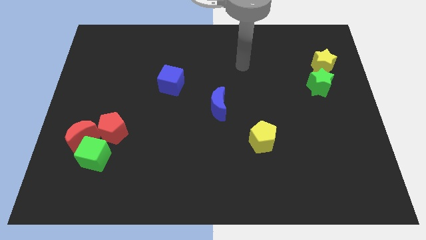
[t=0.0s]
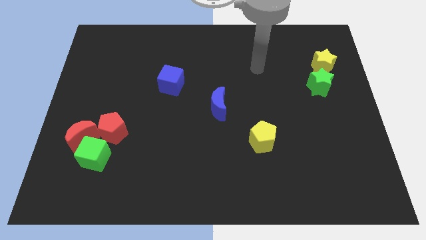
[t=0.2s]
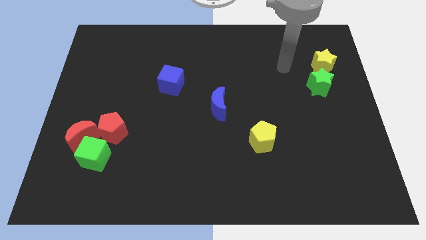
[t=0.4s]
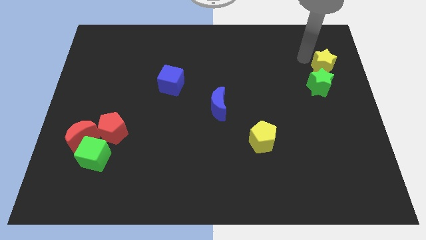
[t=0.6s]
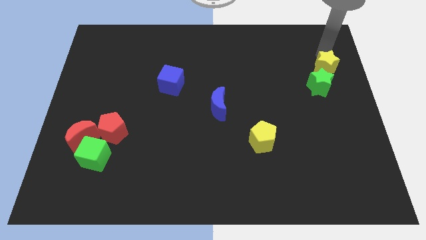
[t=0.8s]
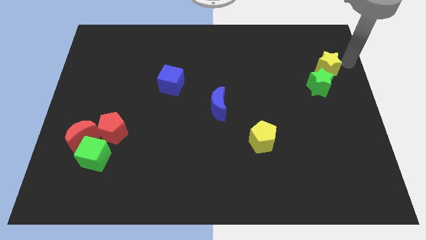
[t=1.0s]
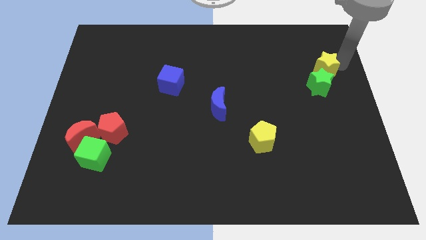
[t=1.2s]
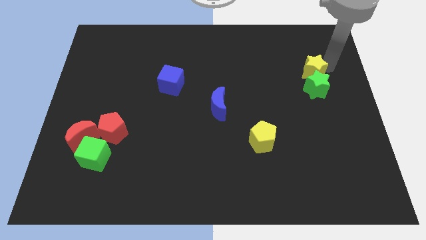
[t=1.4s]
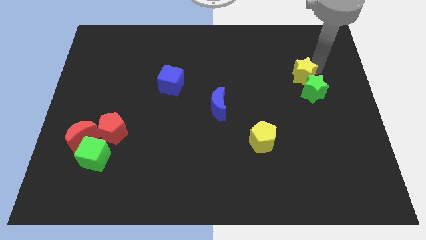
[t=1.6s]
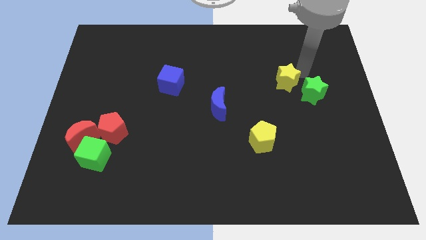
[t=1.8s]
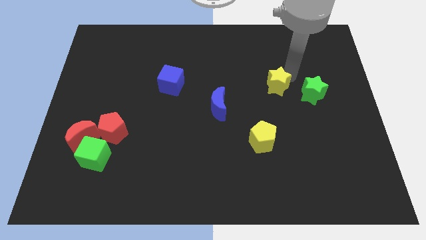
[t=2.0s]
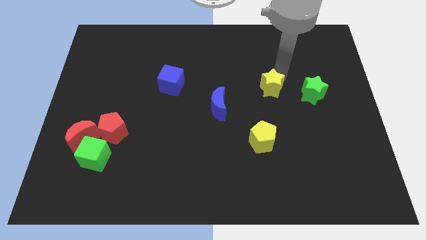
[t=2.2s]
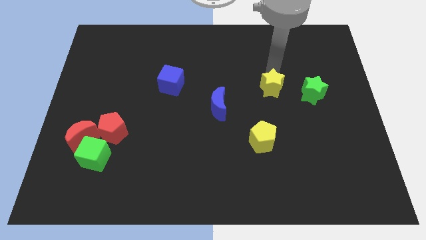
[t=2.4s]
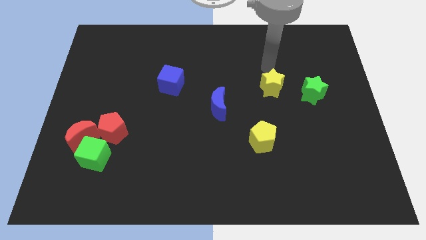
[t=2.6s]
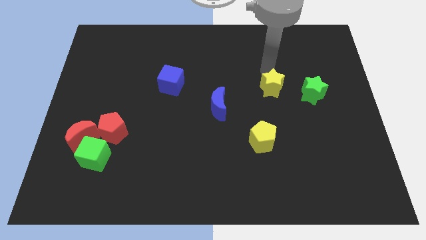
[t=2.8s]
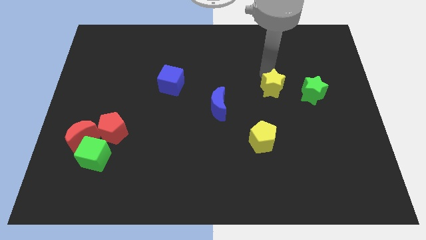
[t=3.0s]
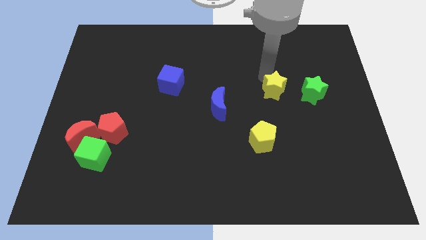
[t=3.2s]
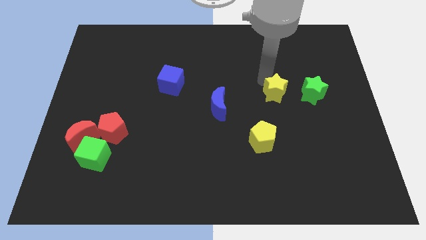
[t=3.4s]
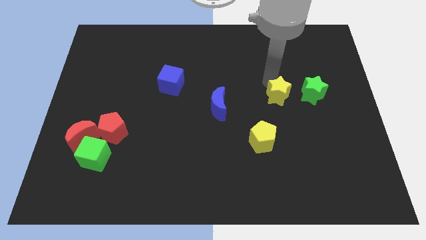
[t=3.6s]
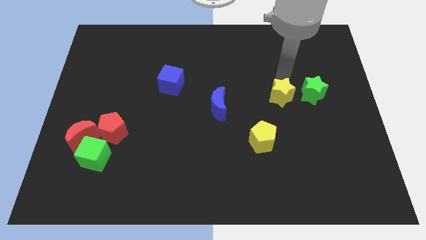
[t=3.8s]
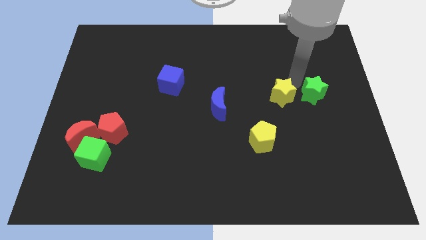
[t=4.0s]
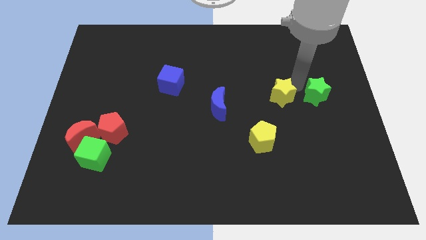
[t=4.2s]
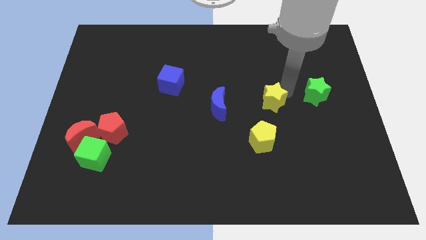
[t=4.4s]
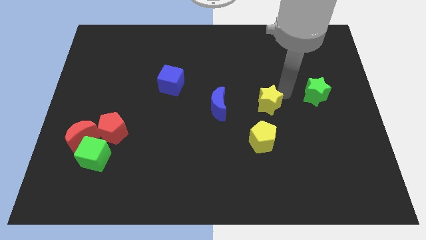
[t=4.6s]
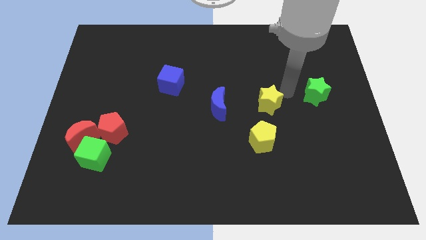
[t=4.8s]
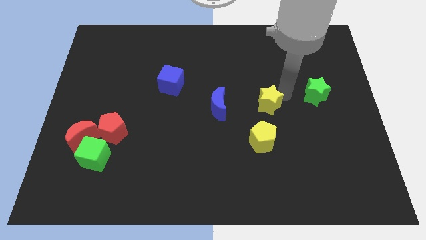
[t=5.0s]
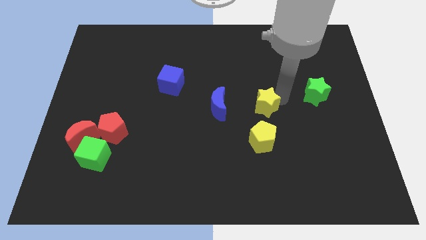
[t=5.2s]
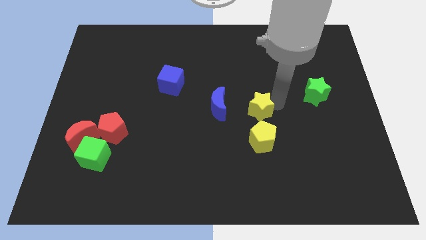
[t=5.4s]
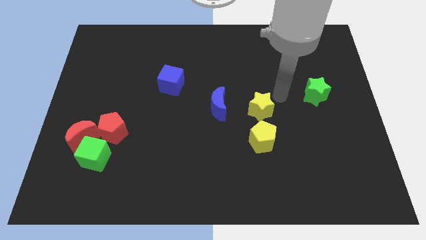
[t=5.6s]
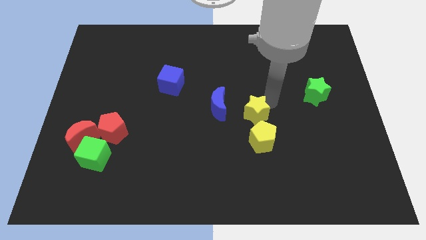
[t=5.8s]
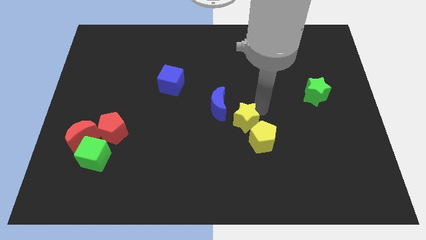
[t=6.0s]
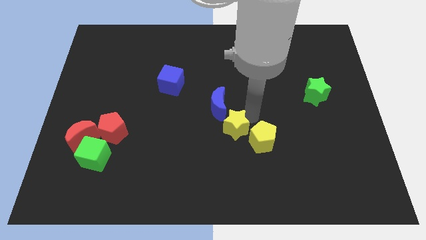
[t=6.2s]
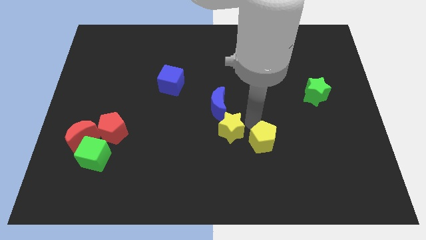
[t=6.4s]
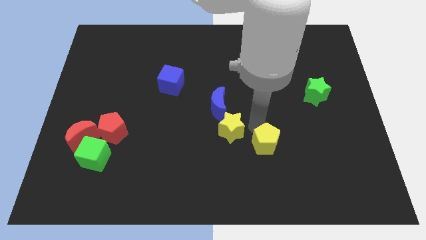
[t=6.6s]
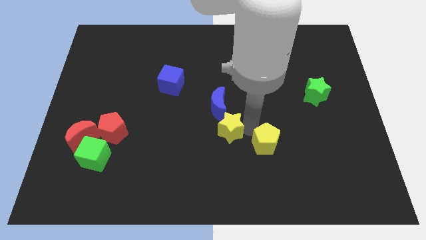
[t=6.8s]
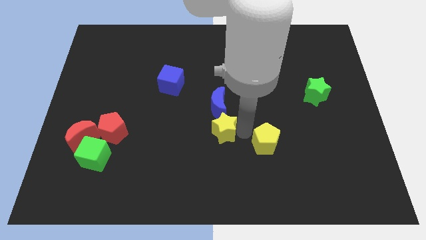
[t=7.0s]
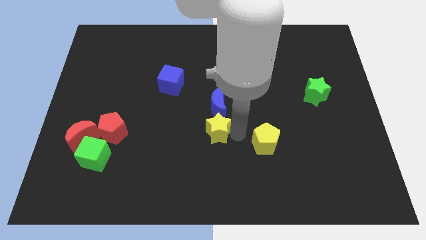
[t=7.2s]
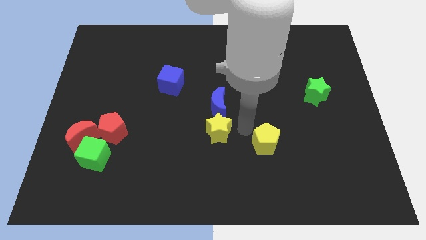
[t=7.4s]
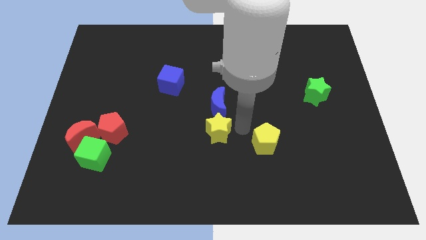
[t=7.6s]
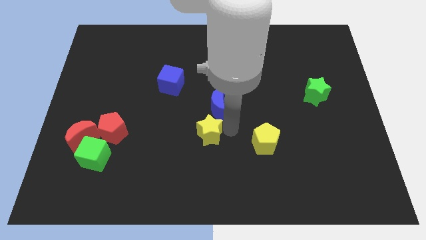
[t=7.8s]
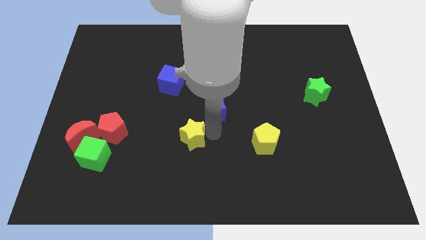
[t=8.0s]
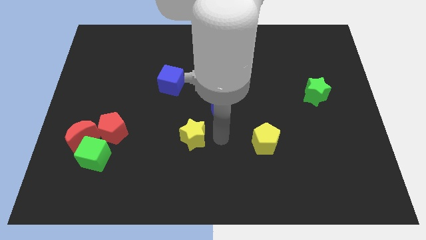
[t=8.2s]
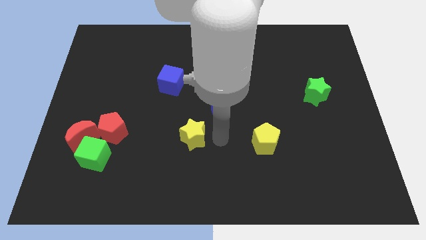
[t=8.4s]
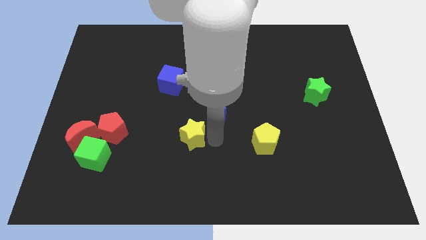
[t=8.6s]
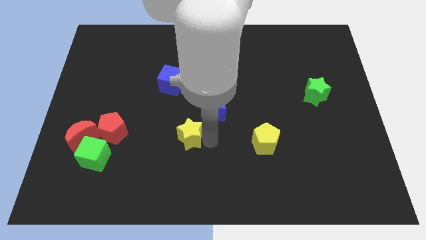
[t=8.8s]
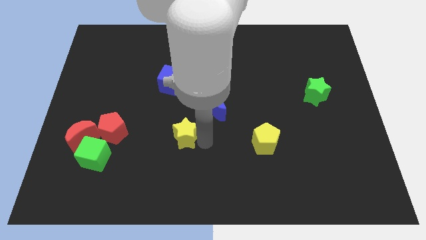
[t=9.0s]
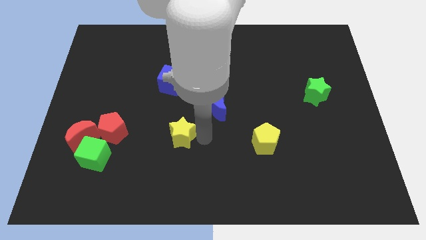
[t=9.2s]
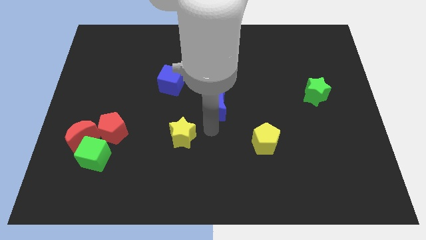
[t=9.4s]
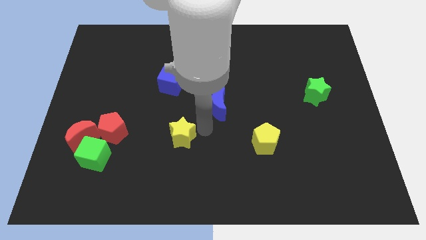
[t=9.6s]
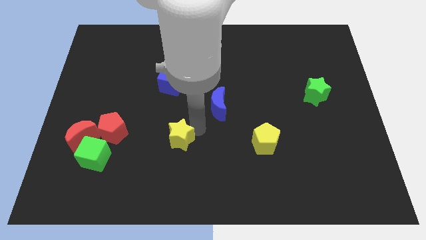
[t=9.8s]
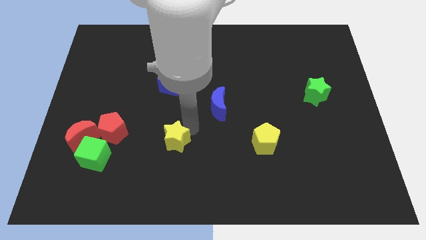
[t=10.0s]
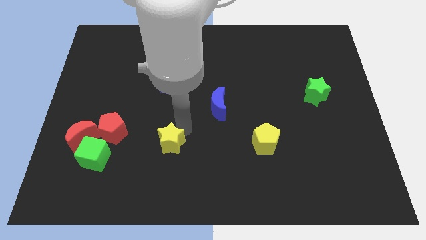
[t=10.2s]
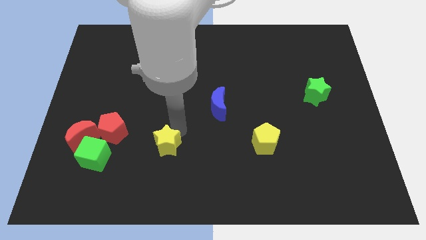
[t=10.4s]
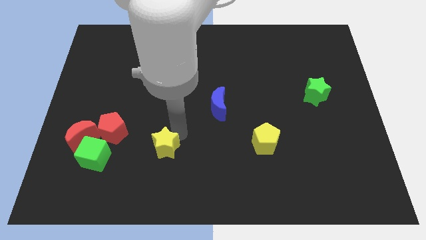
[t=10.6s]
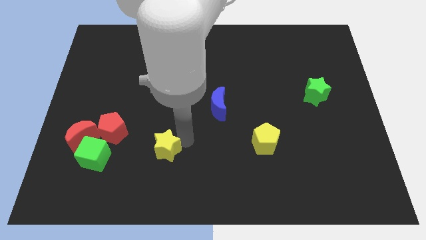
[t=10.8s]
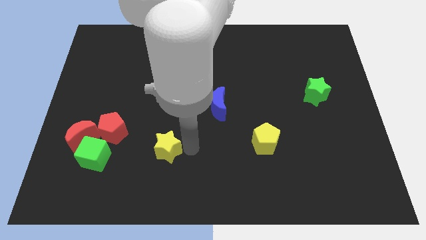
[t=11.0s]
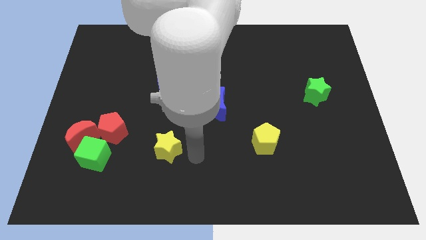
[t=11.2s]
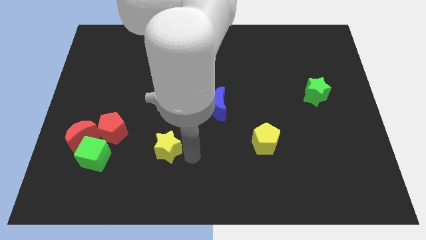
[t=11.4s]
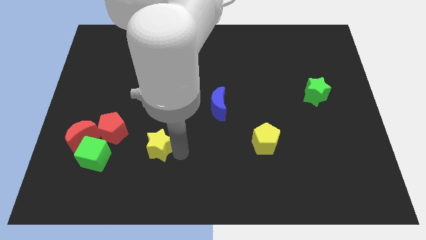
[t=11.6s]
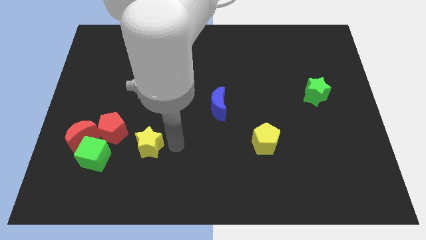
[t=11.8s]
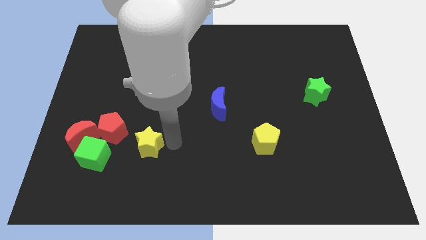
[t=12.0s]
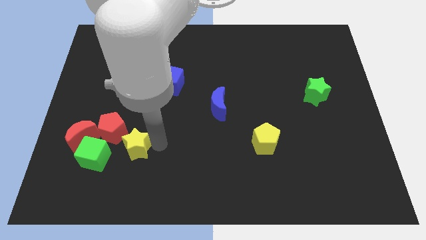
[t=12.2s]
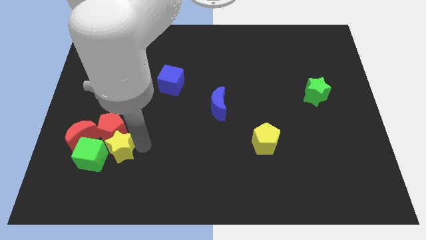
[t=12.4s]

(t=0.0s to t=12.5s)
slide the yellow star towards the green cube

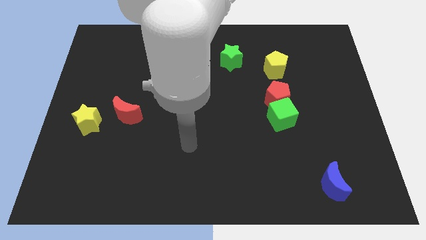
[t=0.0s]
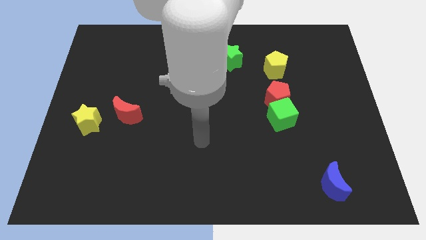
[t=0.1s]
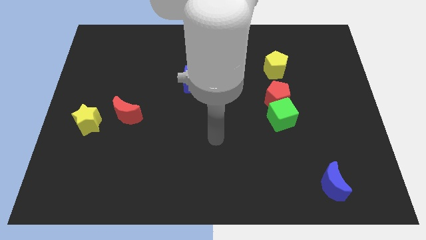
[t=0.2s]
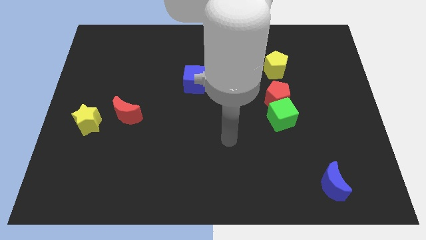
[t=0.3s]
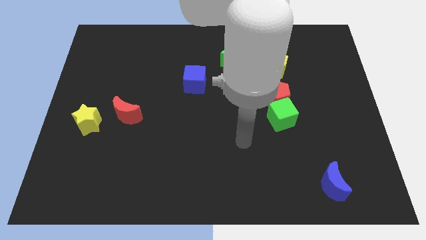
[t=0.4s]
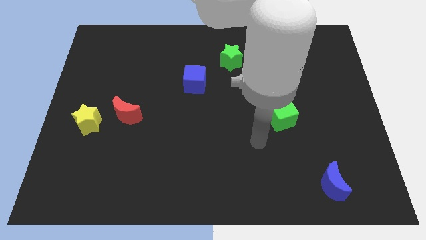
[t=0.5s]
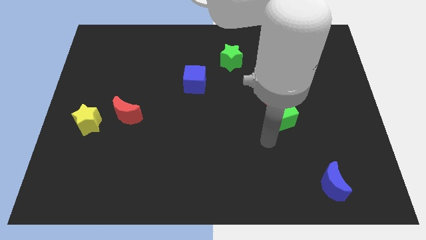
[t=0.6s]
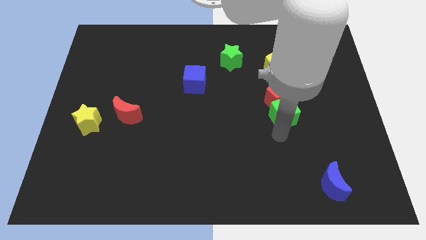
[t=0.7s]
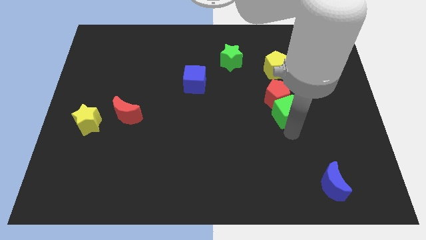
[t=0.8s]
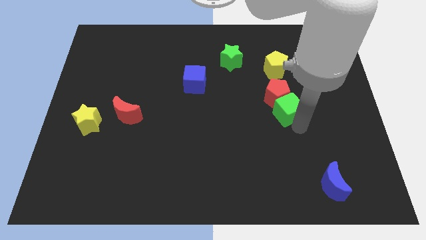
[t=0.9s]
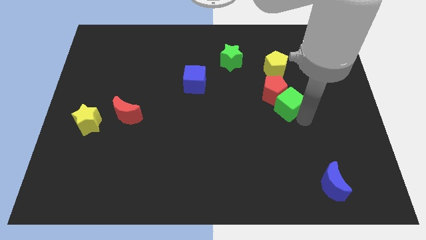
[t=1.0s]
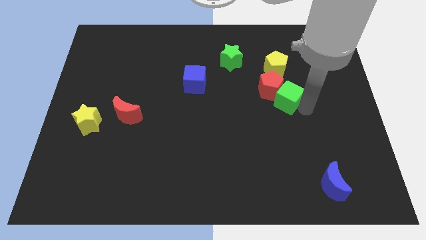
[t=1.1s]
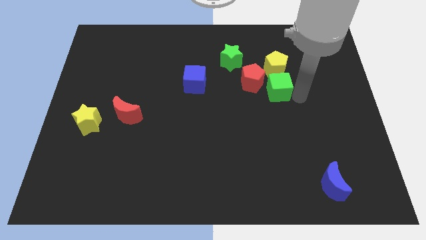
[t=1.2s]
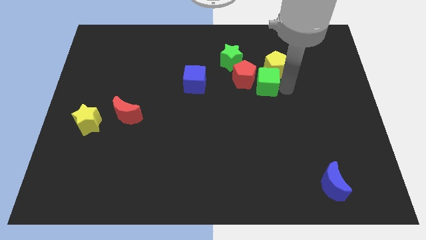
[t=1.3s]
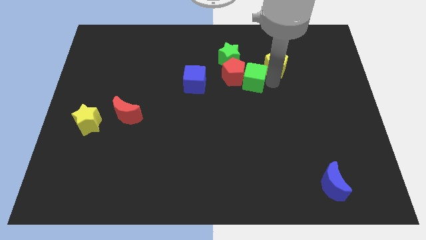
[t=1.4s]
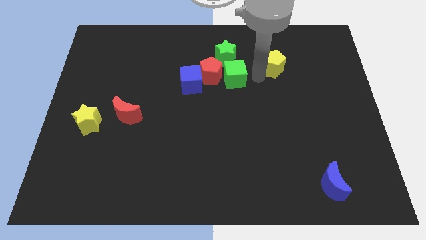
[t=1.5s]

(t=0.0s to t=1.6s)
slide the red pentagon next to the blue cube
